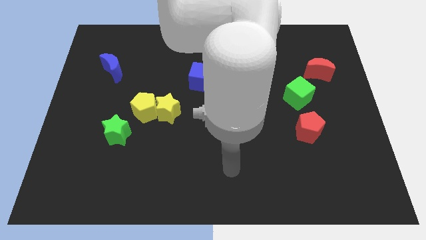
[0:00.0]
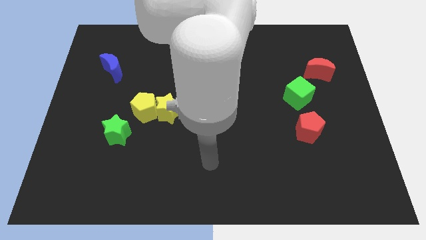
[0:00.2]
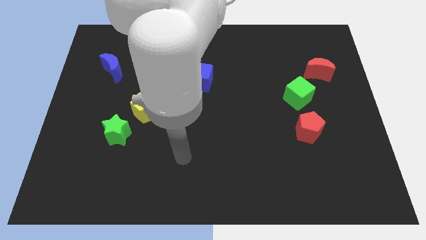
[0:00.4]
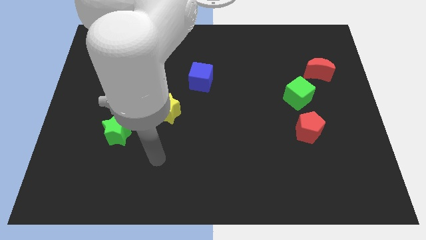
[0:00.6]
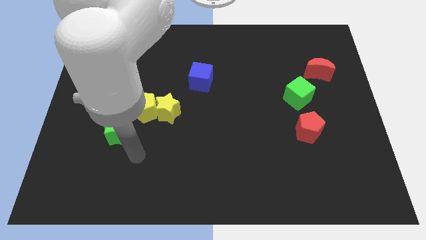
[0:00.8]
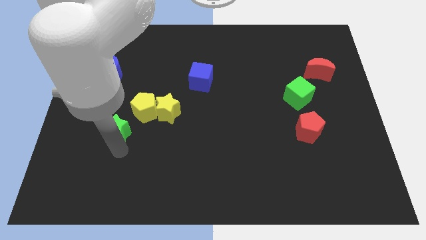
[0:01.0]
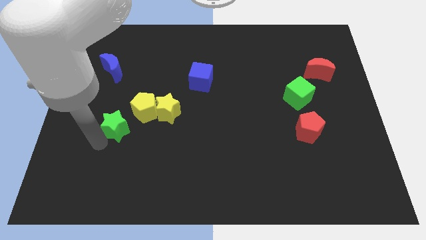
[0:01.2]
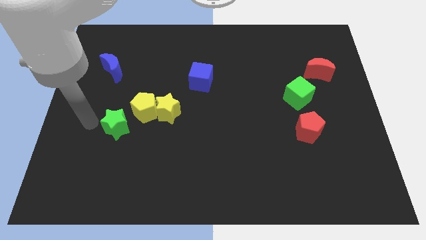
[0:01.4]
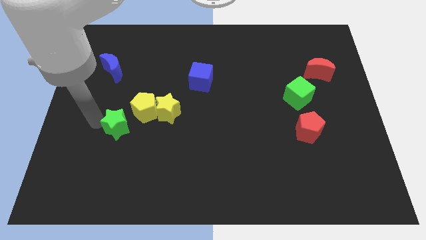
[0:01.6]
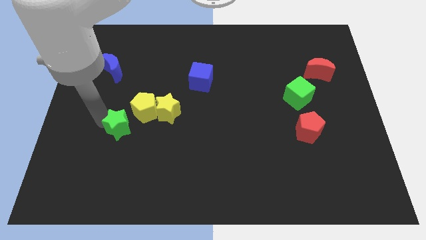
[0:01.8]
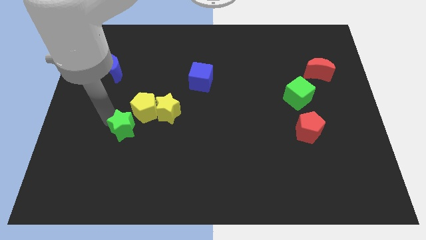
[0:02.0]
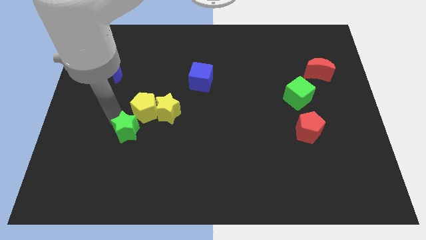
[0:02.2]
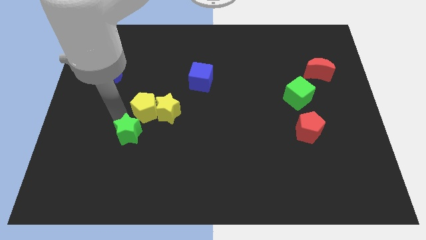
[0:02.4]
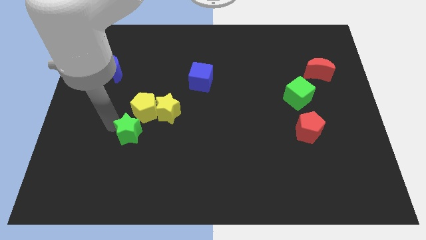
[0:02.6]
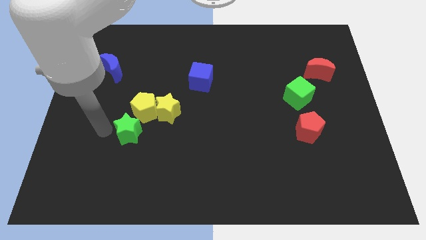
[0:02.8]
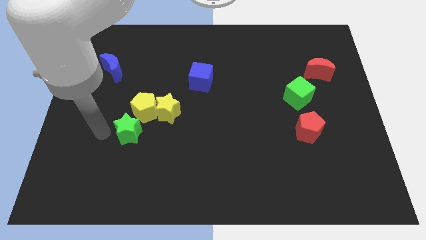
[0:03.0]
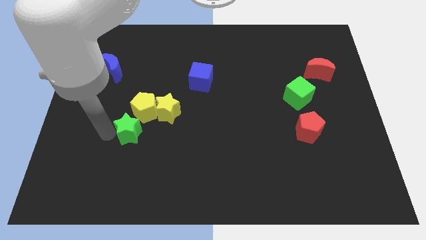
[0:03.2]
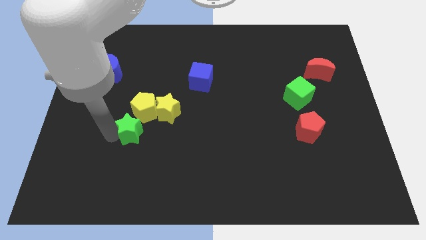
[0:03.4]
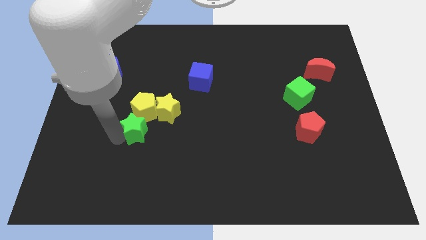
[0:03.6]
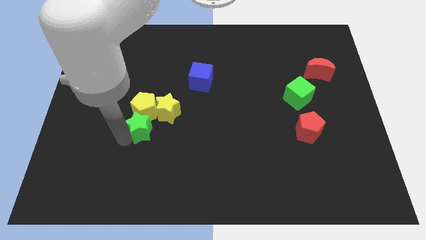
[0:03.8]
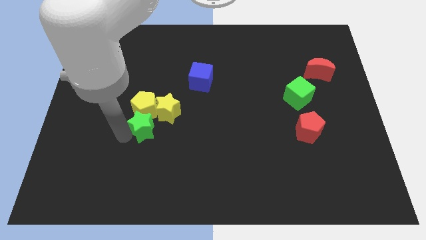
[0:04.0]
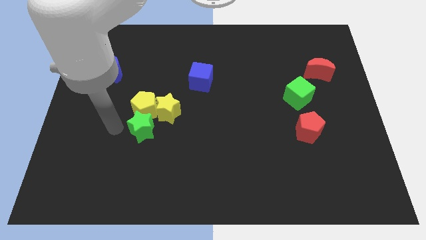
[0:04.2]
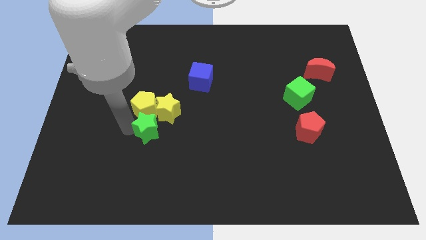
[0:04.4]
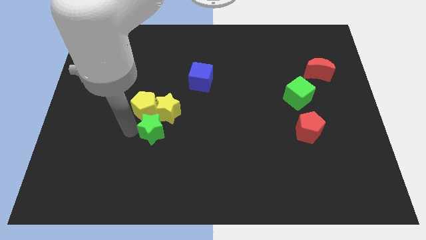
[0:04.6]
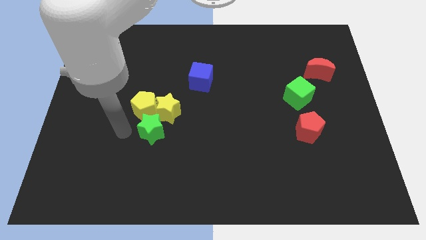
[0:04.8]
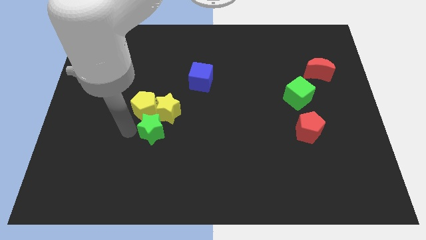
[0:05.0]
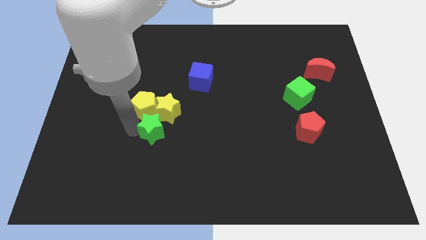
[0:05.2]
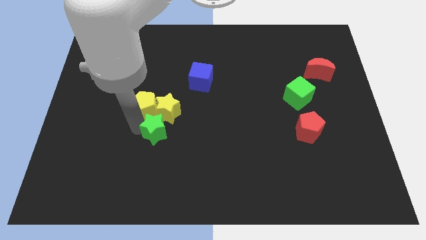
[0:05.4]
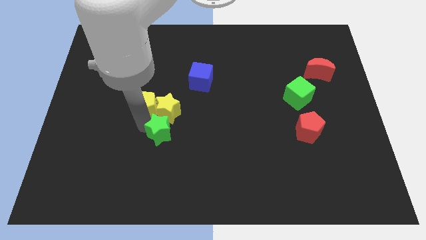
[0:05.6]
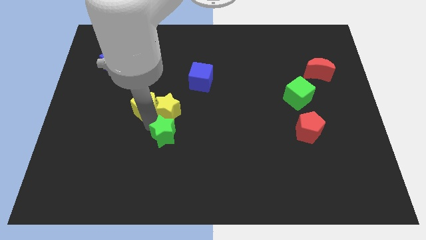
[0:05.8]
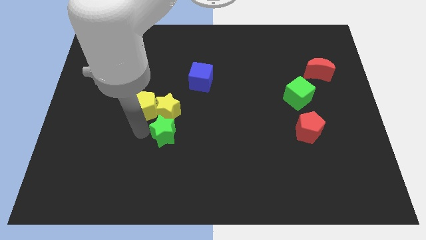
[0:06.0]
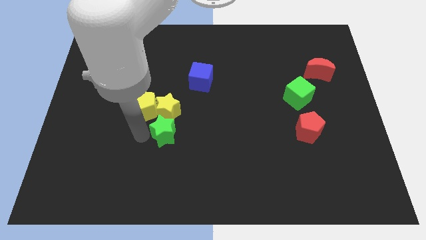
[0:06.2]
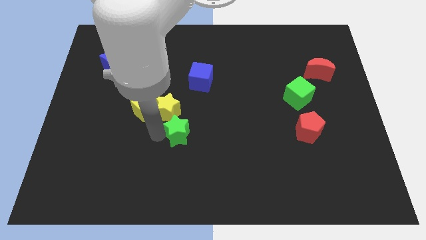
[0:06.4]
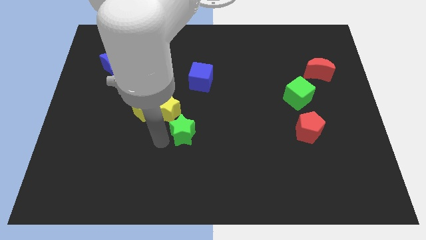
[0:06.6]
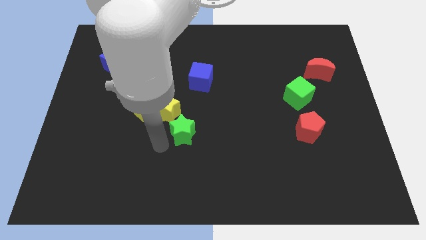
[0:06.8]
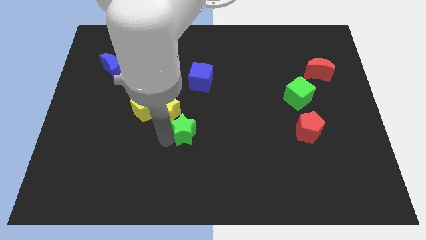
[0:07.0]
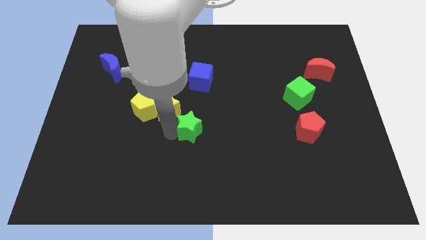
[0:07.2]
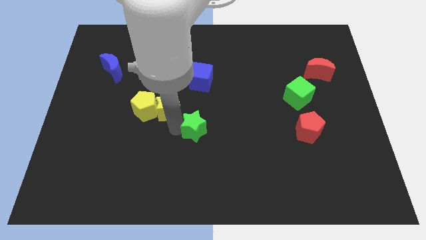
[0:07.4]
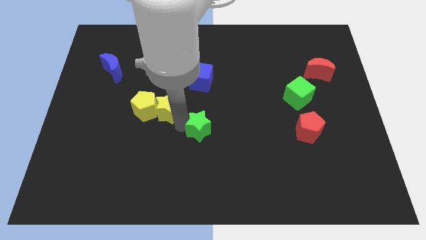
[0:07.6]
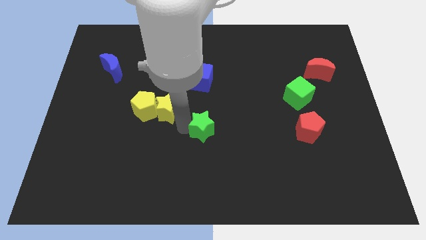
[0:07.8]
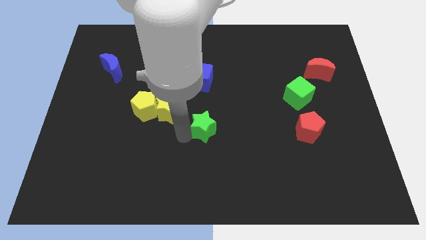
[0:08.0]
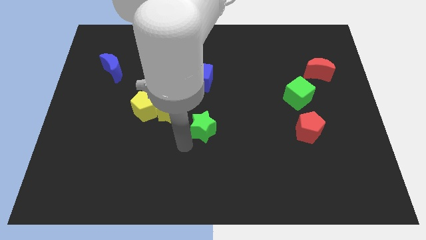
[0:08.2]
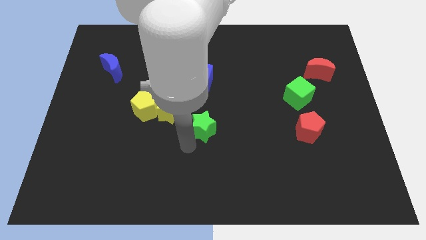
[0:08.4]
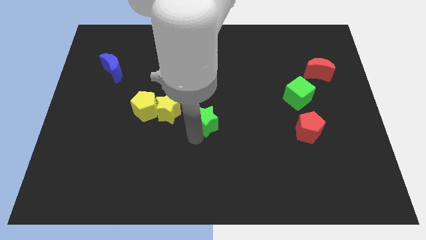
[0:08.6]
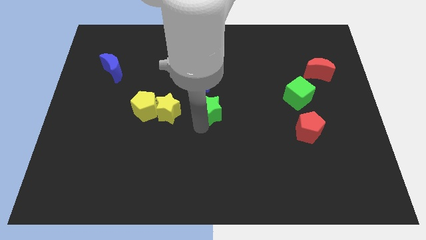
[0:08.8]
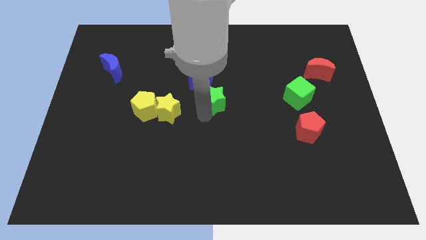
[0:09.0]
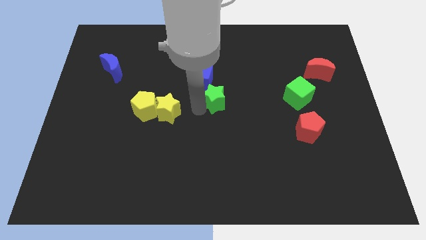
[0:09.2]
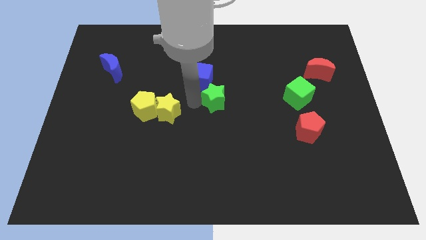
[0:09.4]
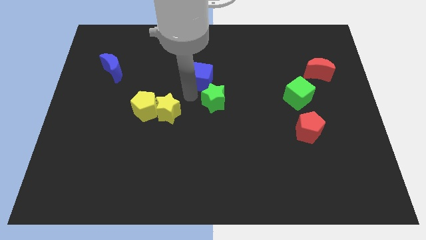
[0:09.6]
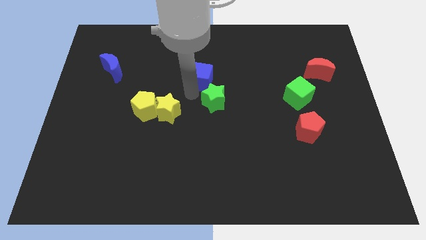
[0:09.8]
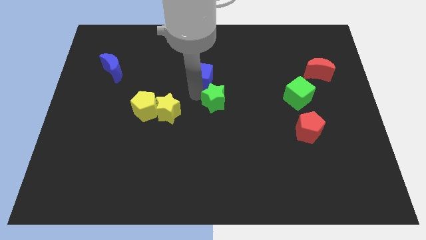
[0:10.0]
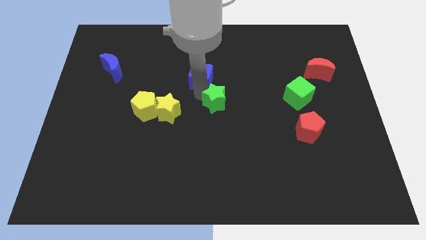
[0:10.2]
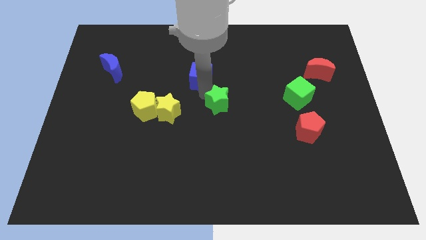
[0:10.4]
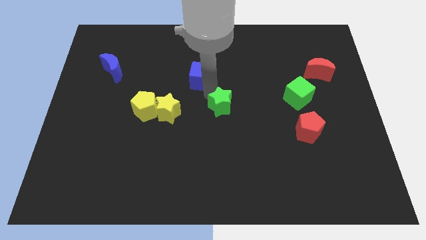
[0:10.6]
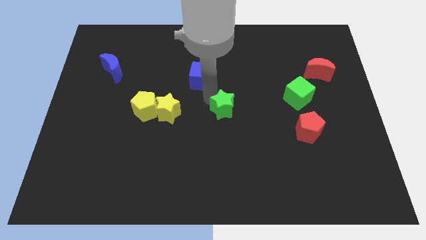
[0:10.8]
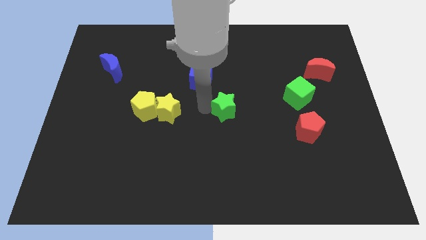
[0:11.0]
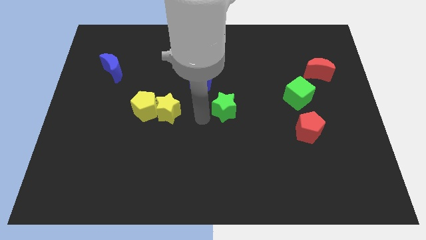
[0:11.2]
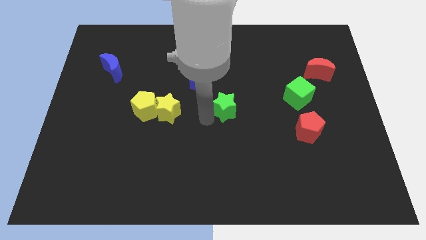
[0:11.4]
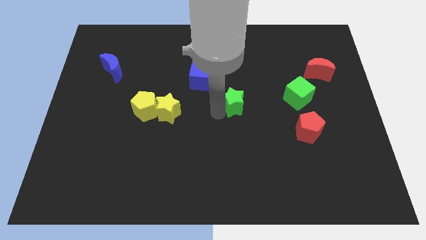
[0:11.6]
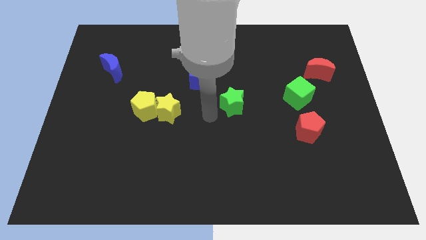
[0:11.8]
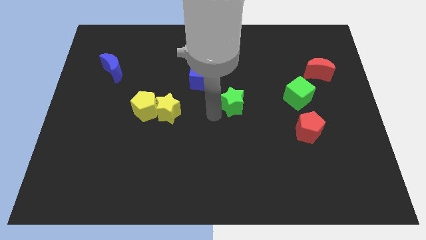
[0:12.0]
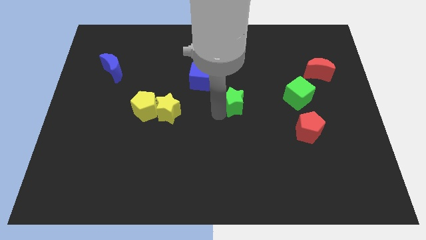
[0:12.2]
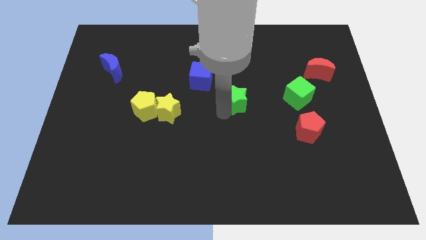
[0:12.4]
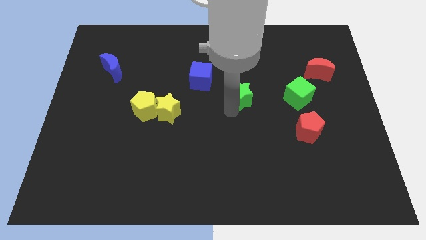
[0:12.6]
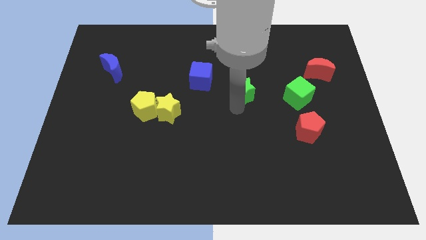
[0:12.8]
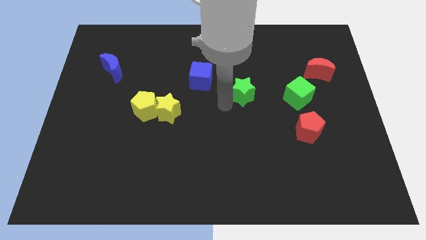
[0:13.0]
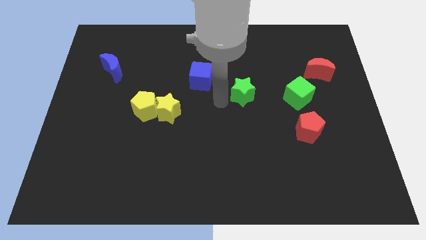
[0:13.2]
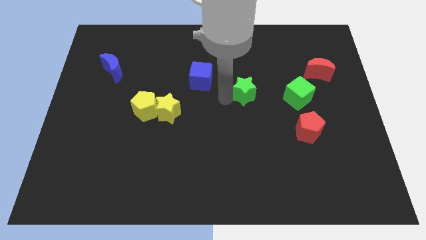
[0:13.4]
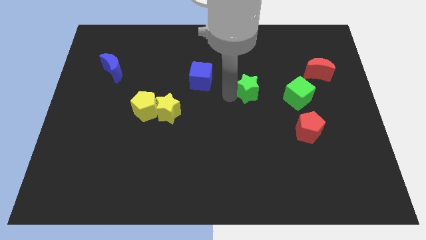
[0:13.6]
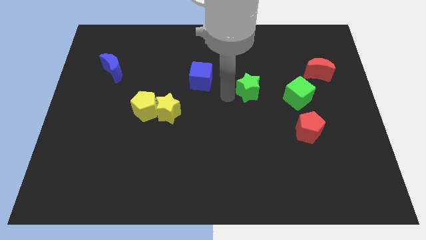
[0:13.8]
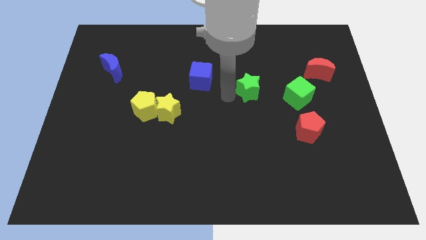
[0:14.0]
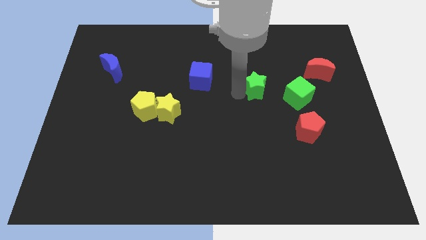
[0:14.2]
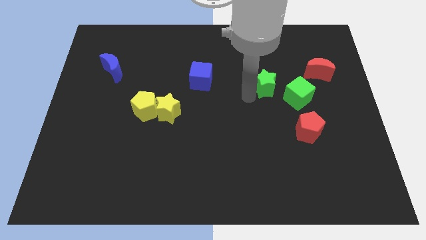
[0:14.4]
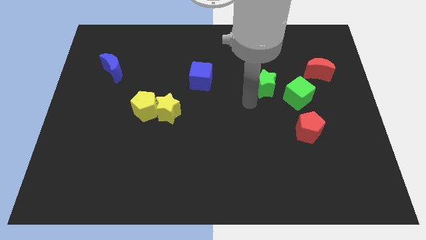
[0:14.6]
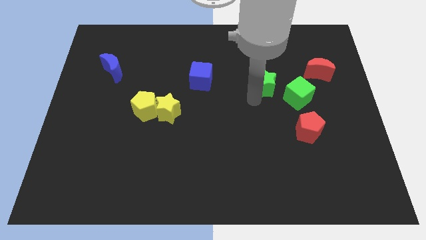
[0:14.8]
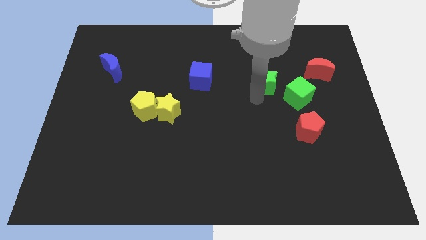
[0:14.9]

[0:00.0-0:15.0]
push the green star left of the red moon
